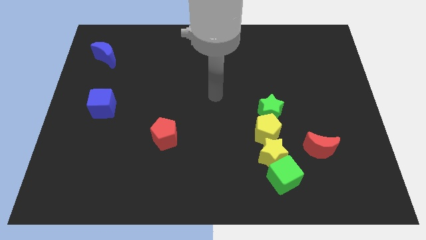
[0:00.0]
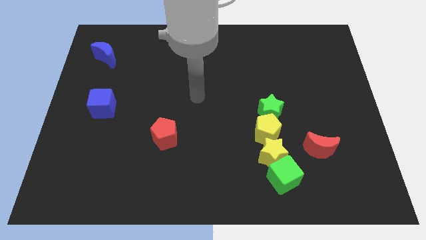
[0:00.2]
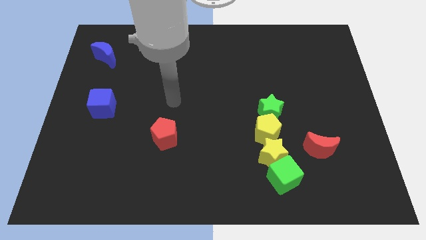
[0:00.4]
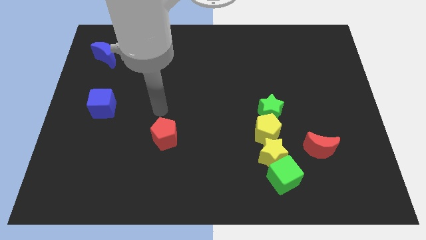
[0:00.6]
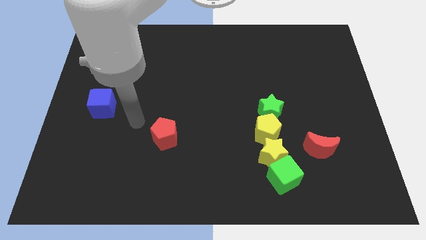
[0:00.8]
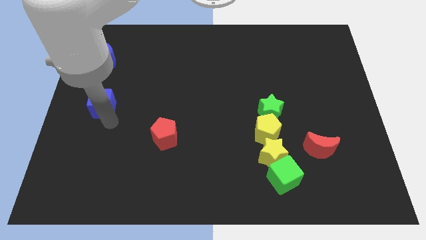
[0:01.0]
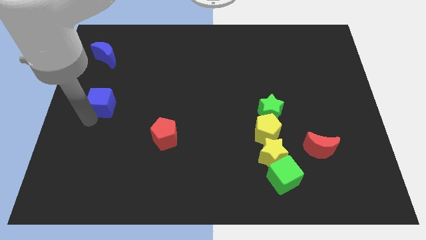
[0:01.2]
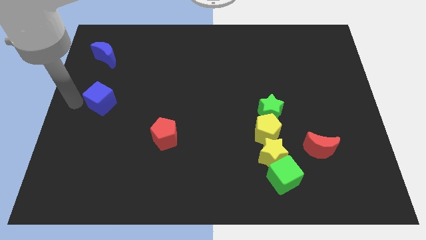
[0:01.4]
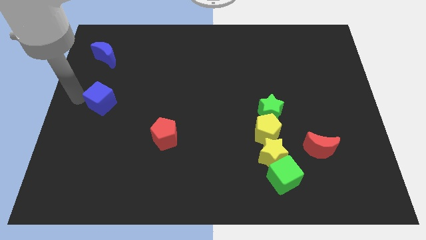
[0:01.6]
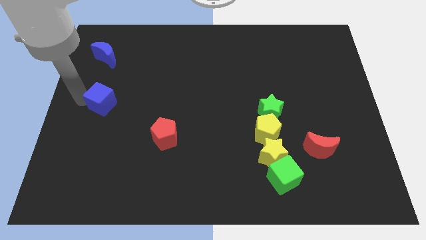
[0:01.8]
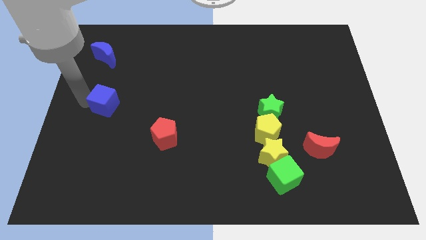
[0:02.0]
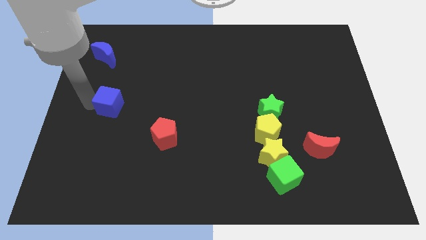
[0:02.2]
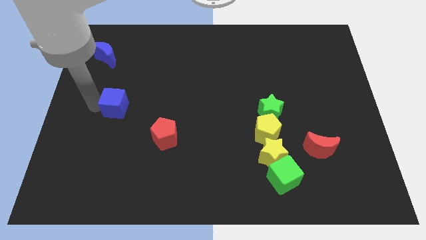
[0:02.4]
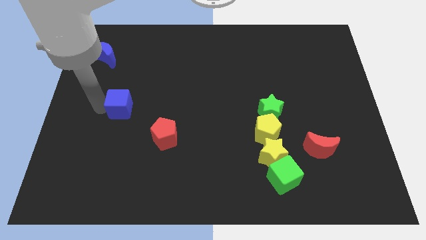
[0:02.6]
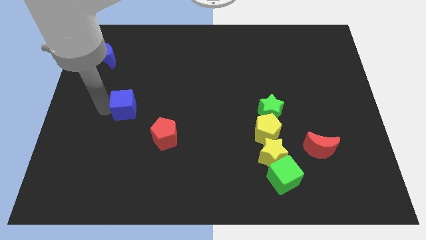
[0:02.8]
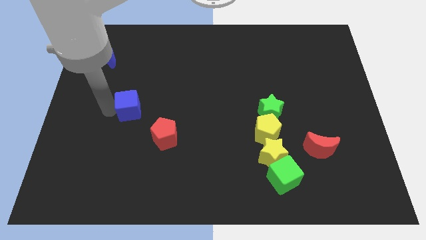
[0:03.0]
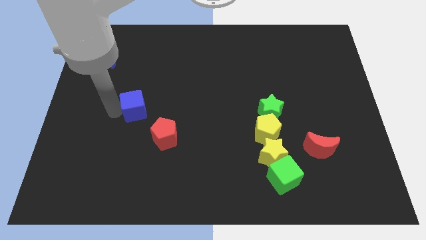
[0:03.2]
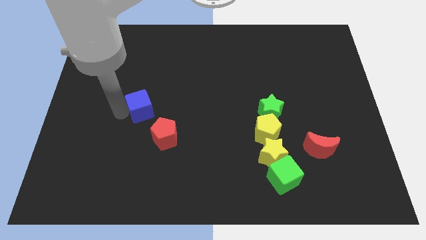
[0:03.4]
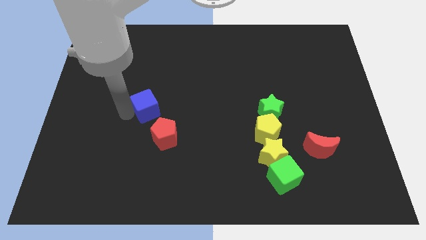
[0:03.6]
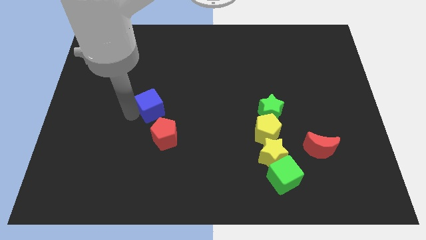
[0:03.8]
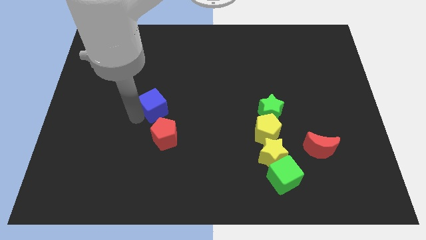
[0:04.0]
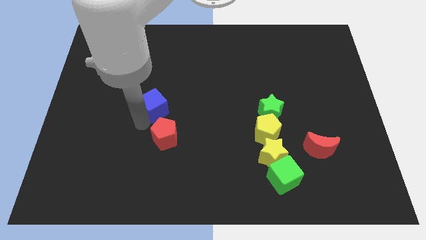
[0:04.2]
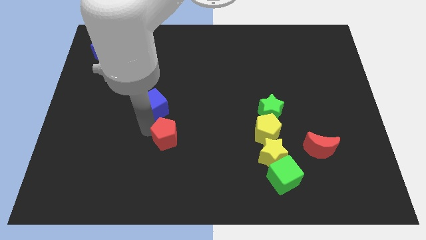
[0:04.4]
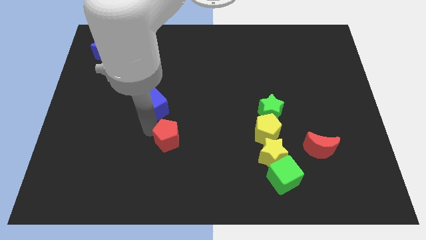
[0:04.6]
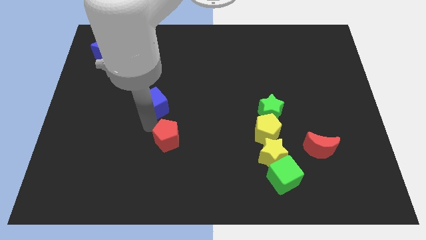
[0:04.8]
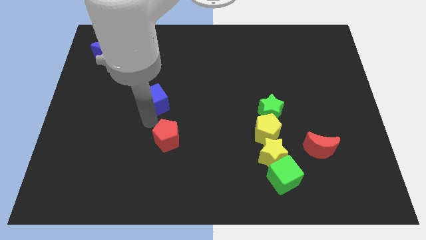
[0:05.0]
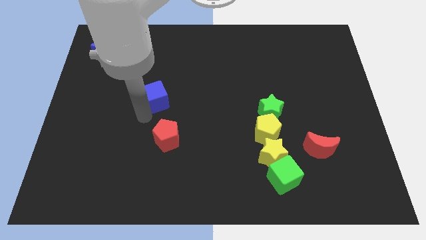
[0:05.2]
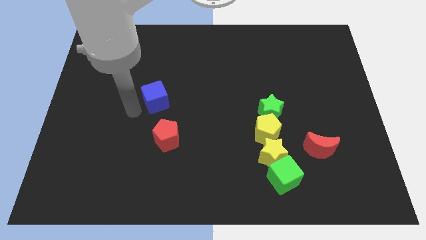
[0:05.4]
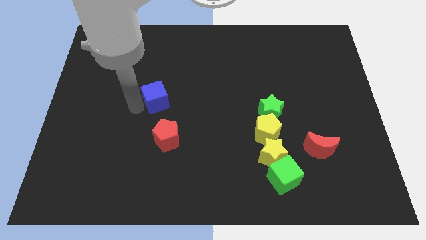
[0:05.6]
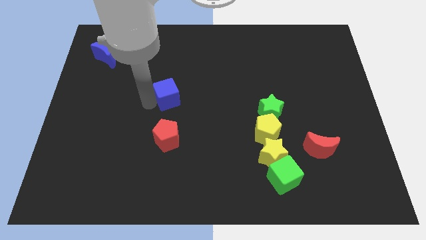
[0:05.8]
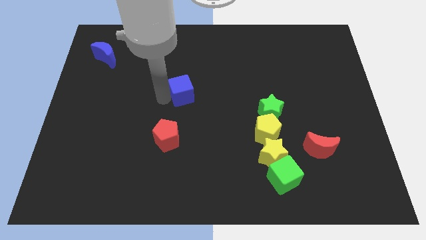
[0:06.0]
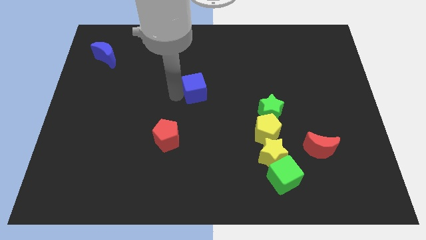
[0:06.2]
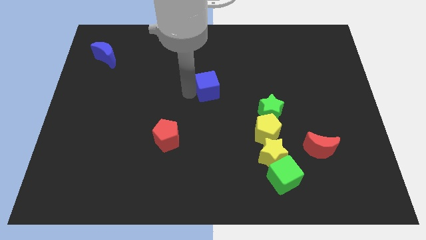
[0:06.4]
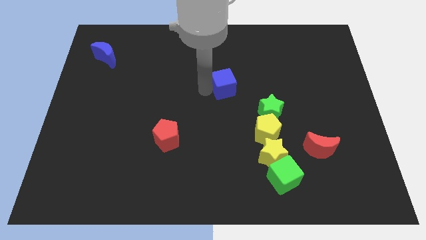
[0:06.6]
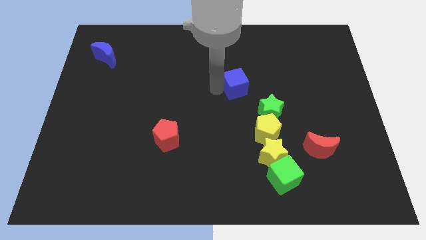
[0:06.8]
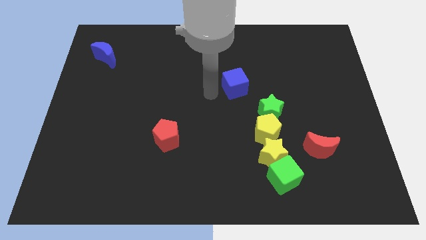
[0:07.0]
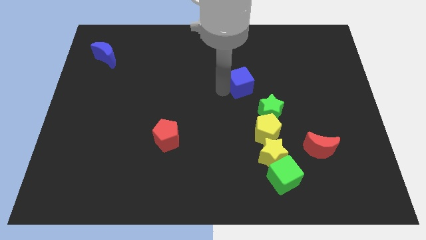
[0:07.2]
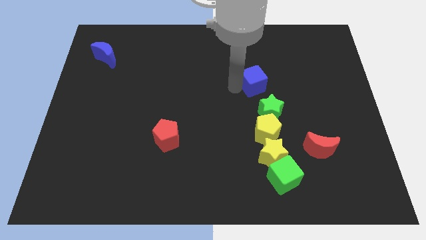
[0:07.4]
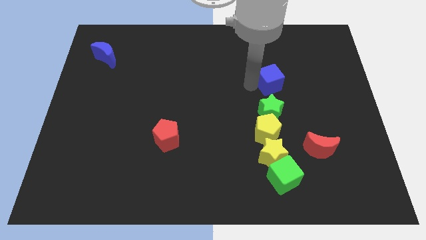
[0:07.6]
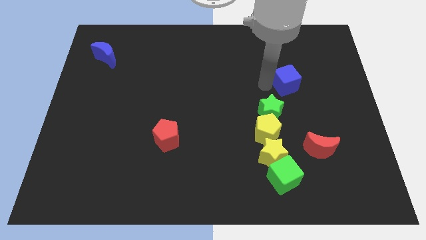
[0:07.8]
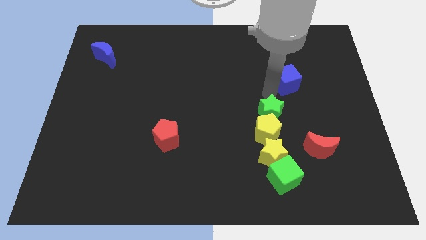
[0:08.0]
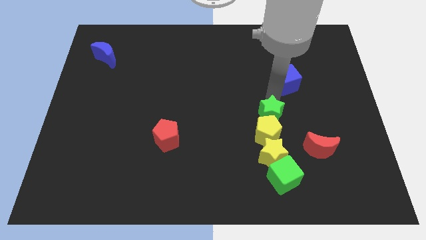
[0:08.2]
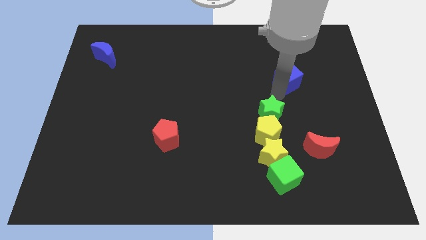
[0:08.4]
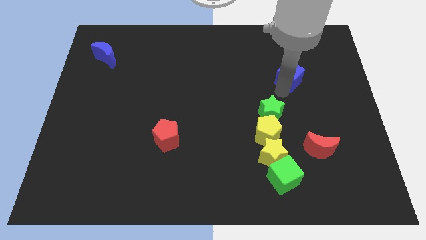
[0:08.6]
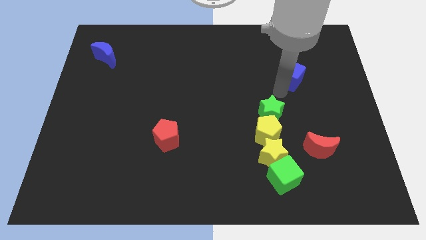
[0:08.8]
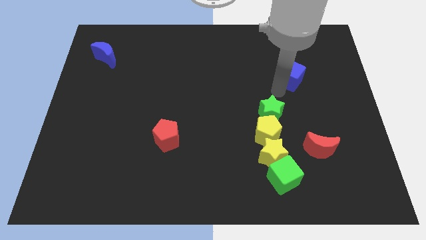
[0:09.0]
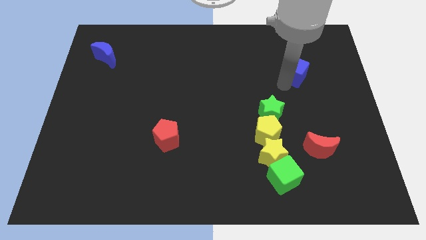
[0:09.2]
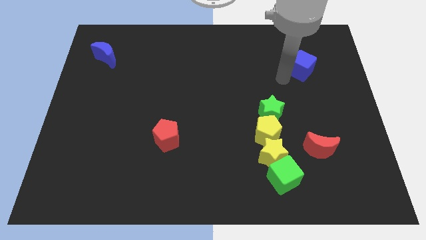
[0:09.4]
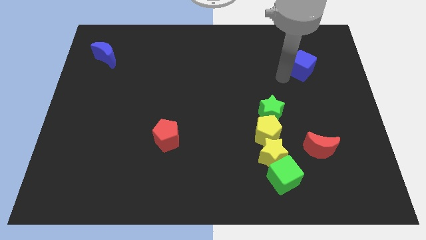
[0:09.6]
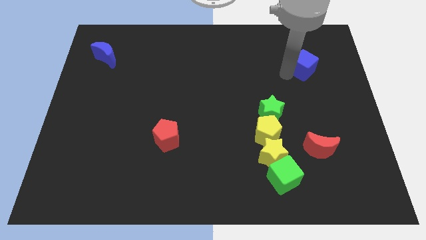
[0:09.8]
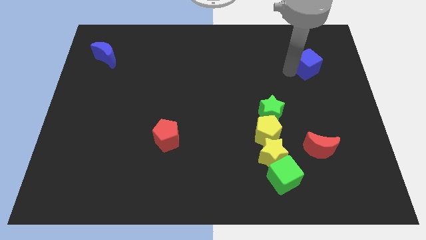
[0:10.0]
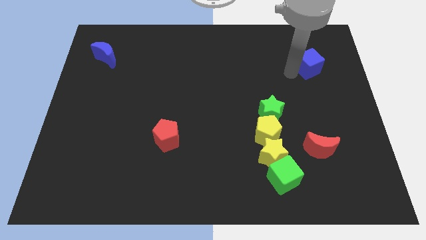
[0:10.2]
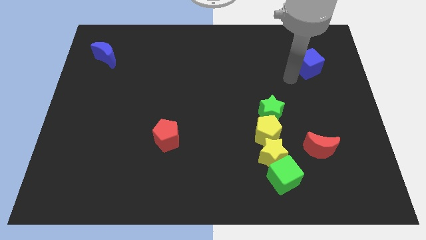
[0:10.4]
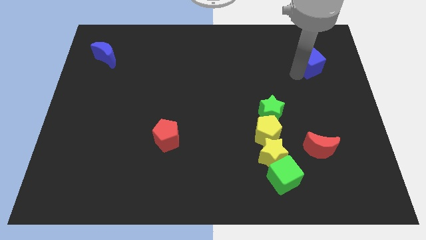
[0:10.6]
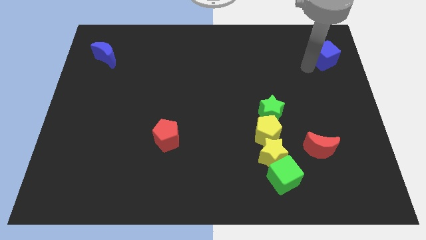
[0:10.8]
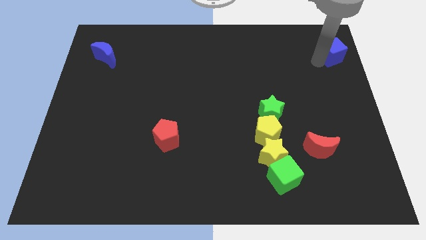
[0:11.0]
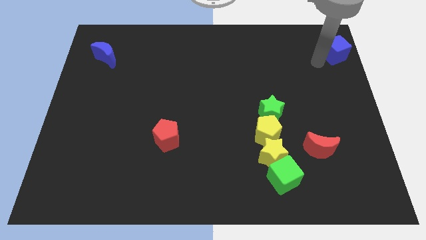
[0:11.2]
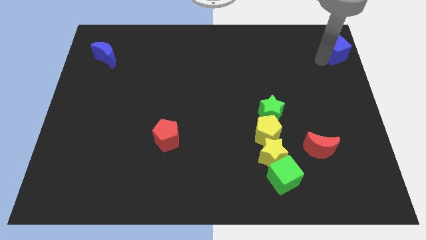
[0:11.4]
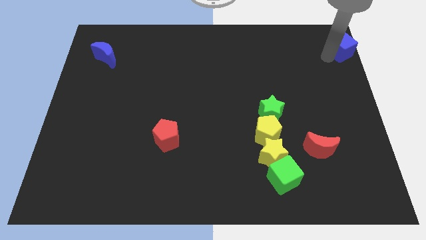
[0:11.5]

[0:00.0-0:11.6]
slide the blue cube to the top right corner
